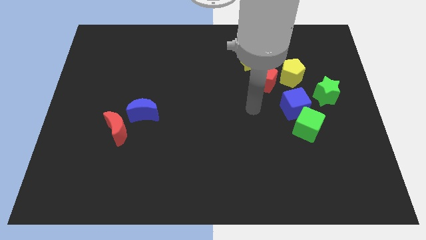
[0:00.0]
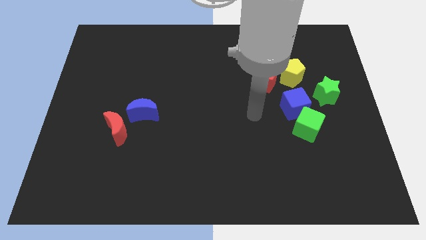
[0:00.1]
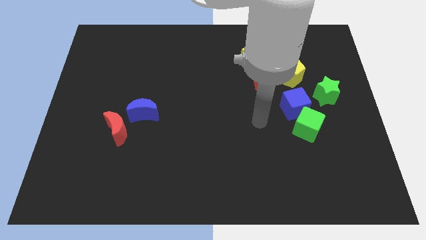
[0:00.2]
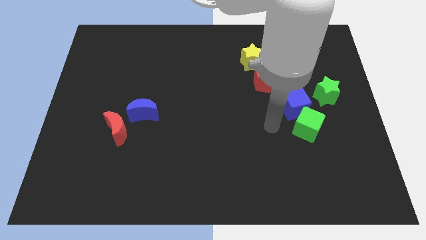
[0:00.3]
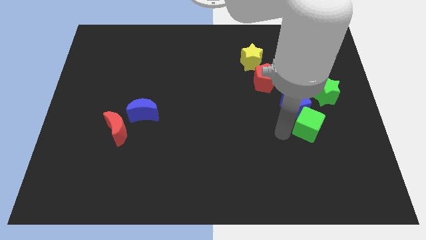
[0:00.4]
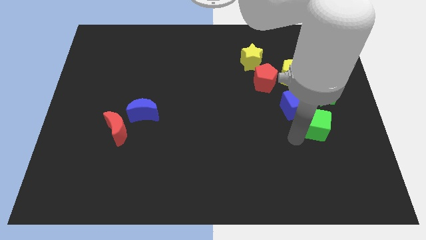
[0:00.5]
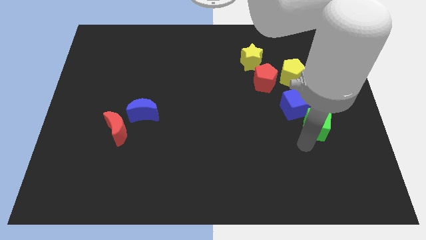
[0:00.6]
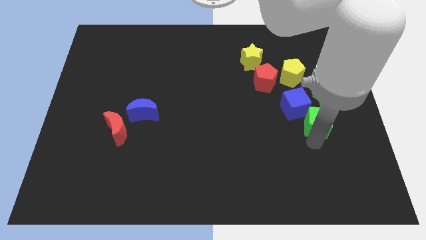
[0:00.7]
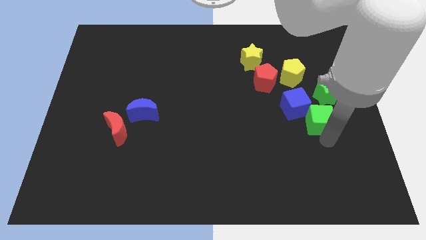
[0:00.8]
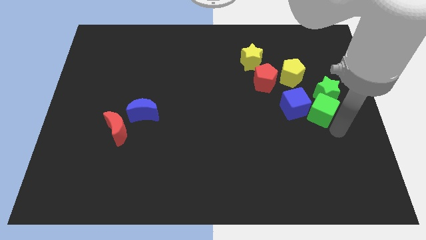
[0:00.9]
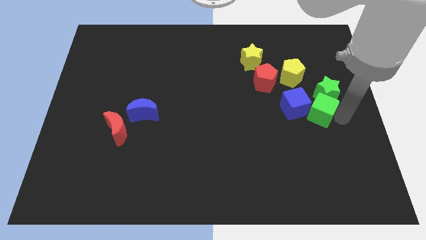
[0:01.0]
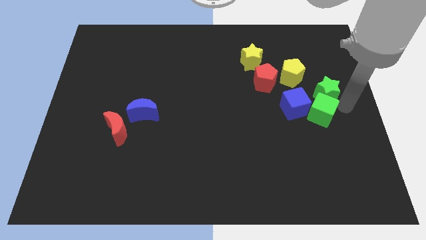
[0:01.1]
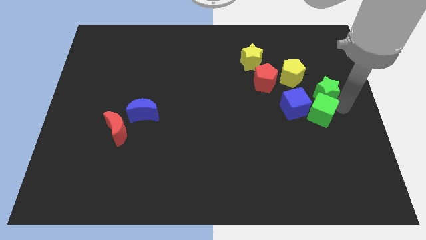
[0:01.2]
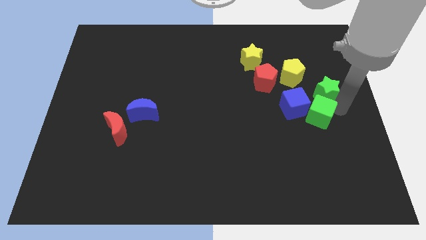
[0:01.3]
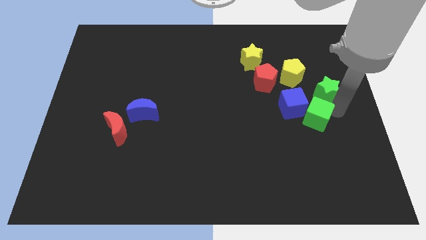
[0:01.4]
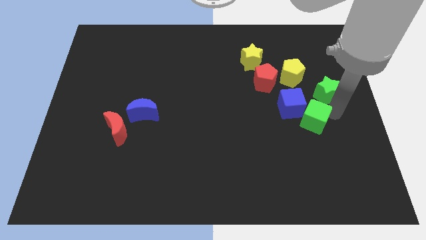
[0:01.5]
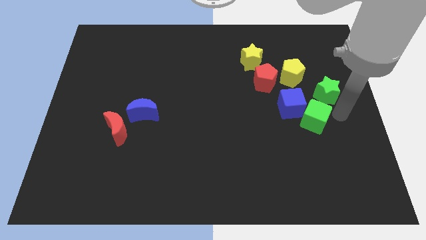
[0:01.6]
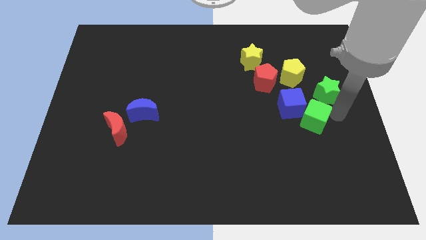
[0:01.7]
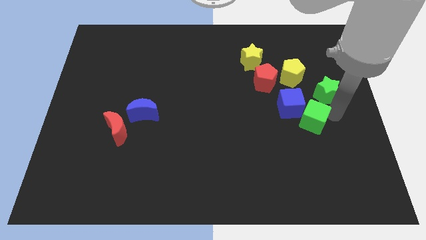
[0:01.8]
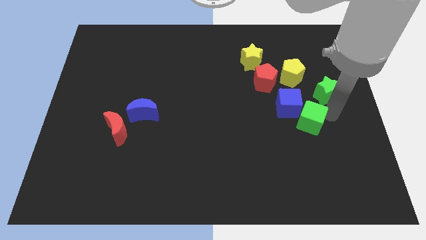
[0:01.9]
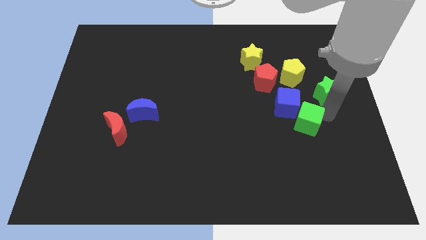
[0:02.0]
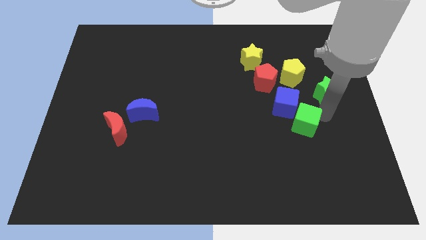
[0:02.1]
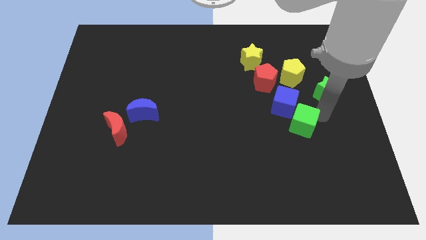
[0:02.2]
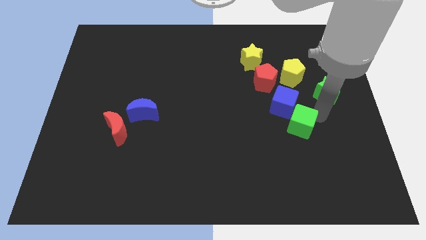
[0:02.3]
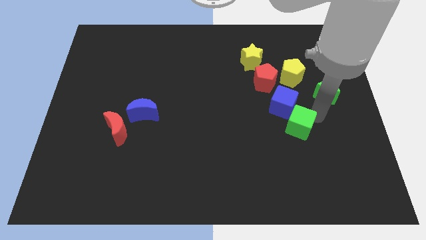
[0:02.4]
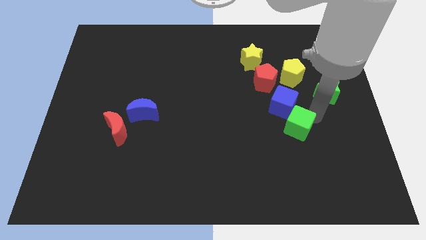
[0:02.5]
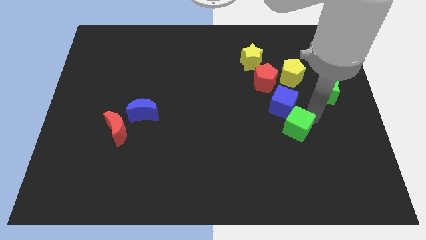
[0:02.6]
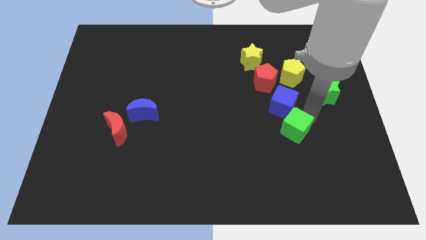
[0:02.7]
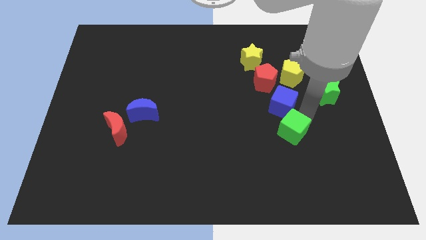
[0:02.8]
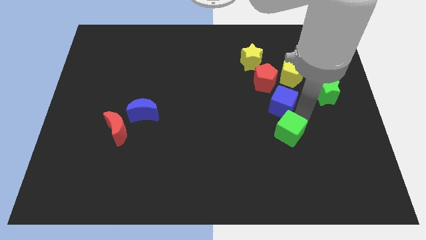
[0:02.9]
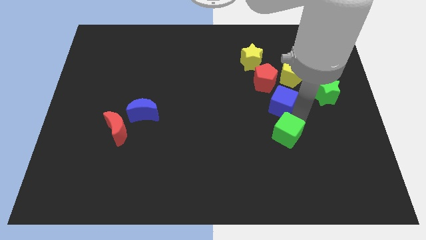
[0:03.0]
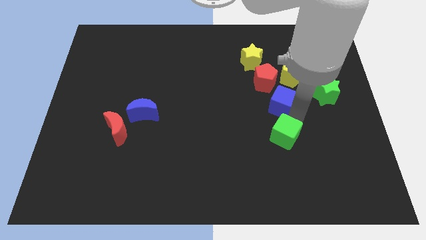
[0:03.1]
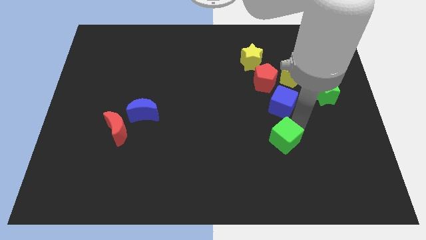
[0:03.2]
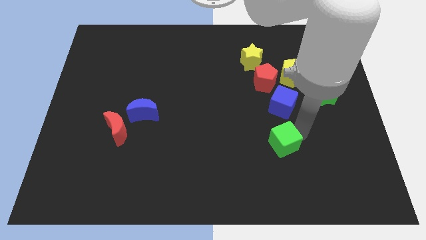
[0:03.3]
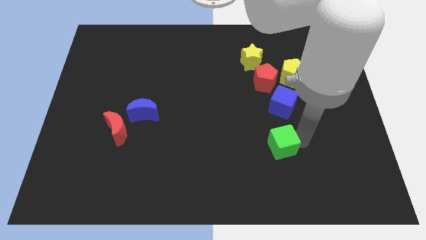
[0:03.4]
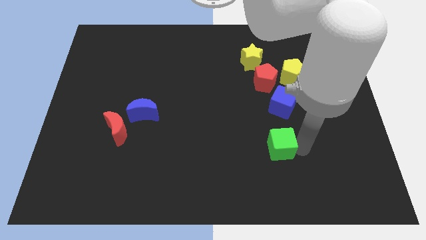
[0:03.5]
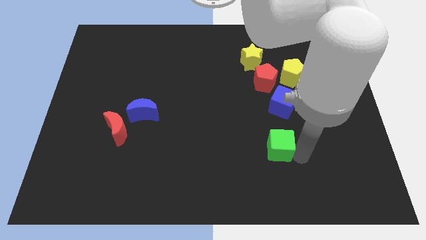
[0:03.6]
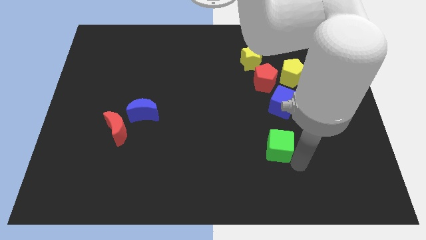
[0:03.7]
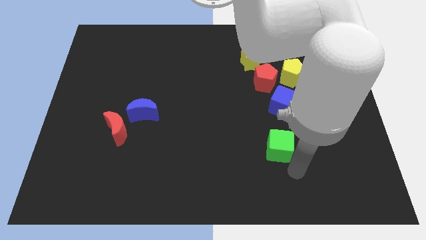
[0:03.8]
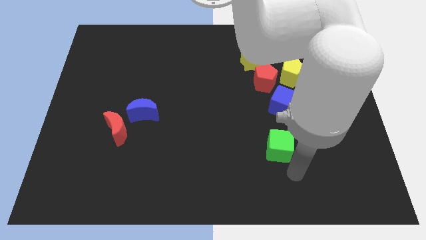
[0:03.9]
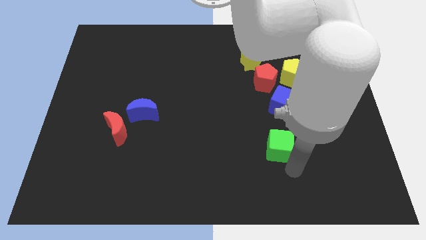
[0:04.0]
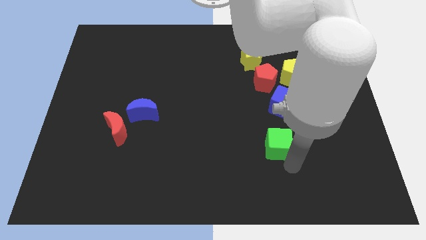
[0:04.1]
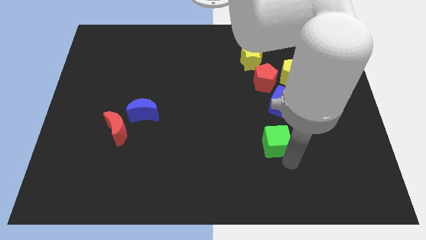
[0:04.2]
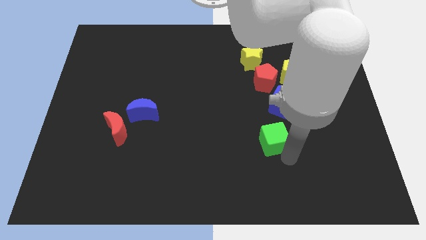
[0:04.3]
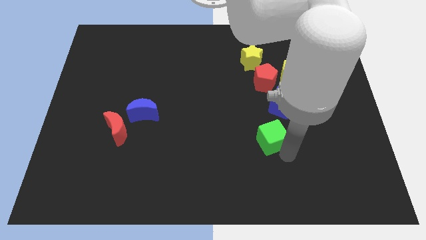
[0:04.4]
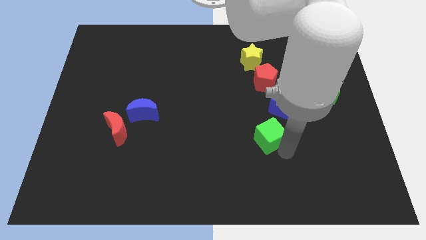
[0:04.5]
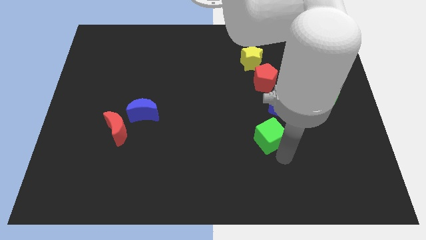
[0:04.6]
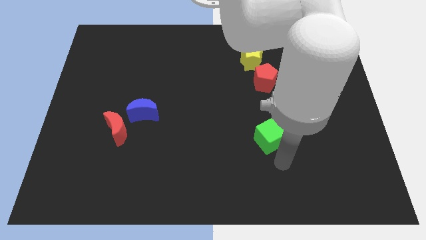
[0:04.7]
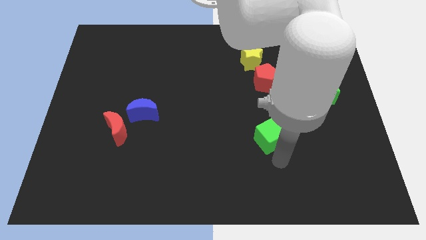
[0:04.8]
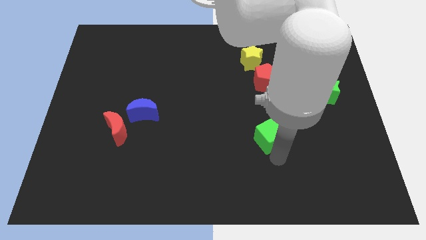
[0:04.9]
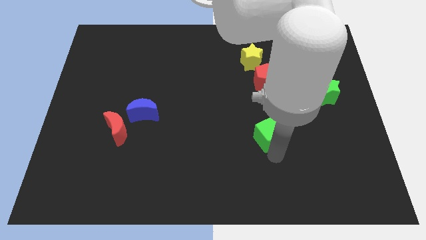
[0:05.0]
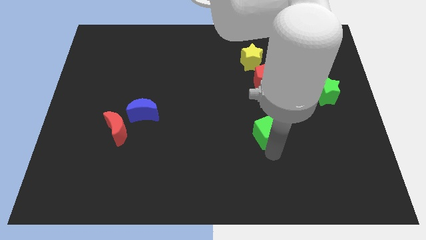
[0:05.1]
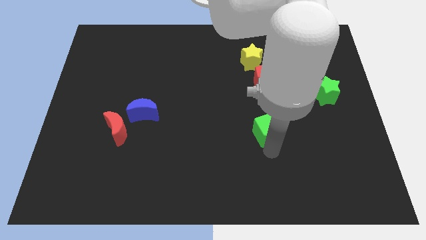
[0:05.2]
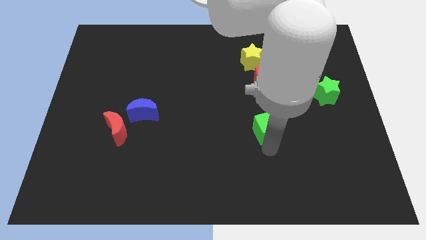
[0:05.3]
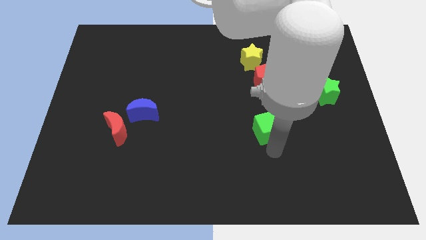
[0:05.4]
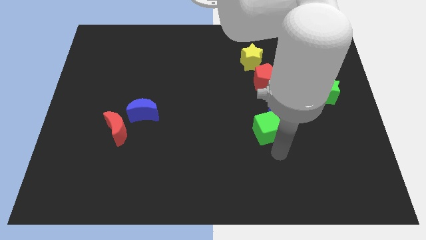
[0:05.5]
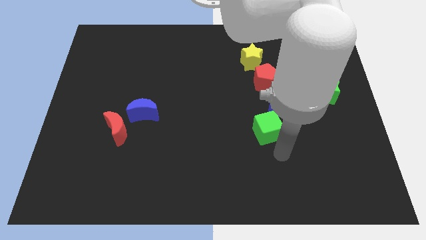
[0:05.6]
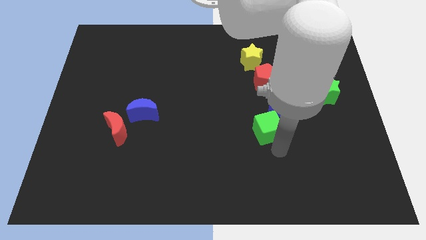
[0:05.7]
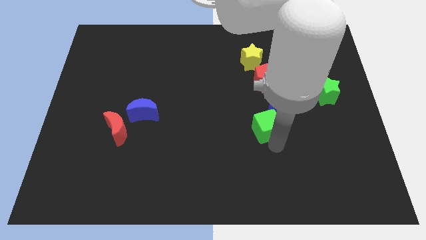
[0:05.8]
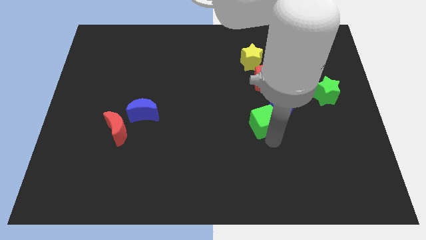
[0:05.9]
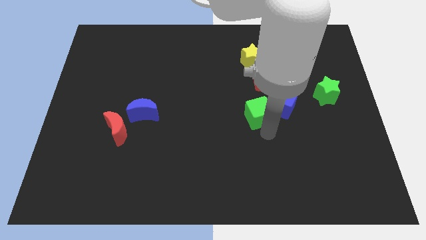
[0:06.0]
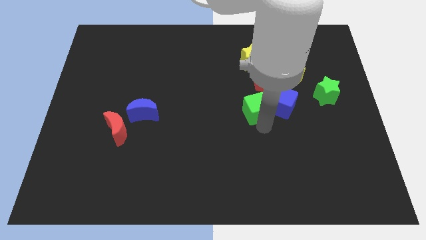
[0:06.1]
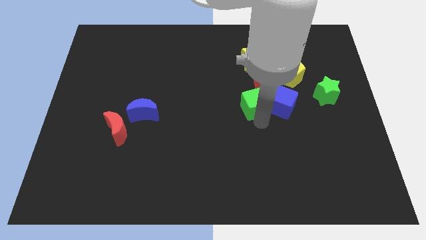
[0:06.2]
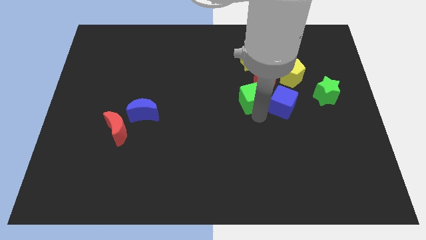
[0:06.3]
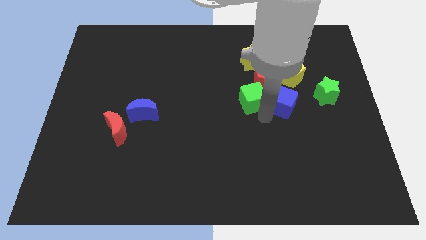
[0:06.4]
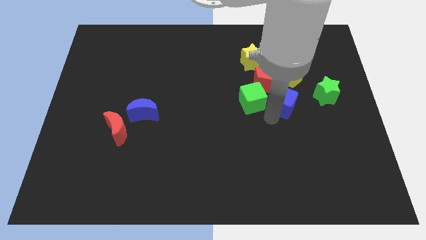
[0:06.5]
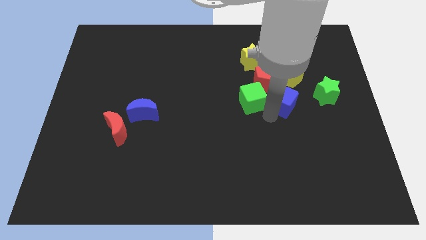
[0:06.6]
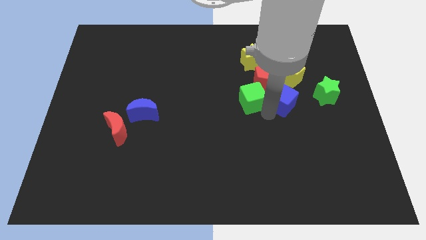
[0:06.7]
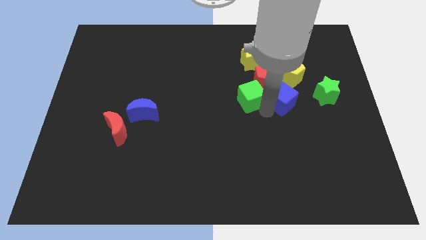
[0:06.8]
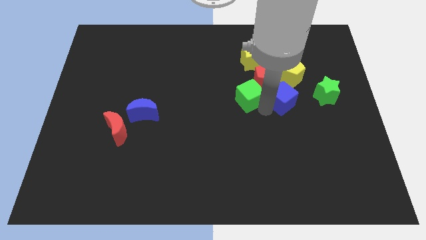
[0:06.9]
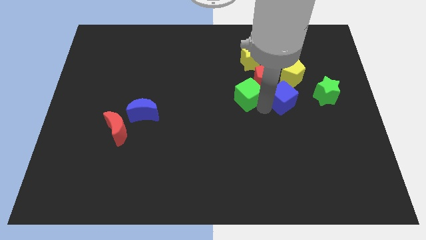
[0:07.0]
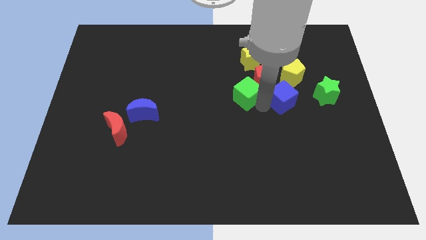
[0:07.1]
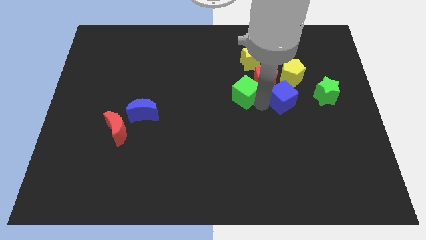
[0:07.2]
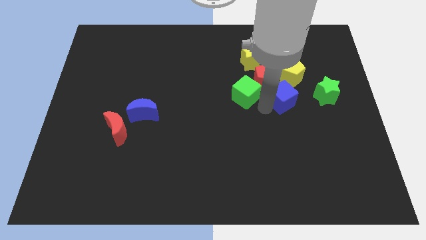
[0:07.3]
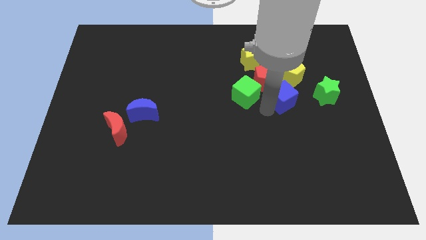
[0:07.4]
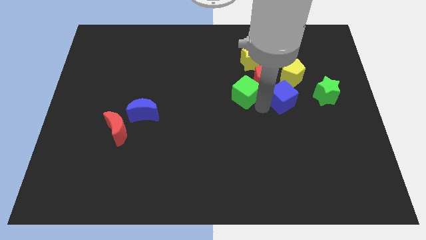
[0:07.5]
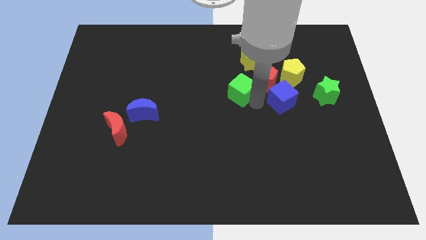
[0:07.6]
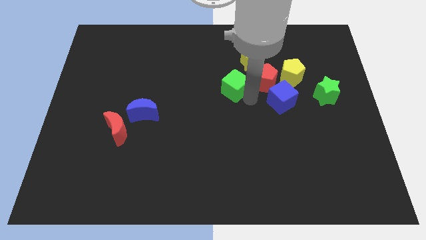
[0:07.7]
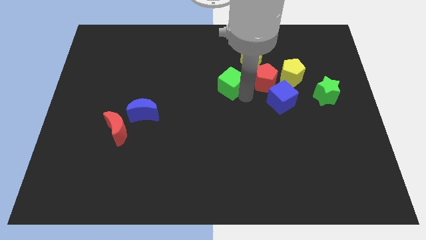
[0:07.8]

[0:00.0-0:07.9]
slide the green cube up and left
